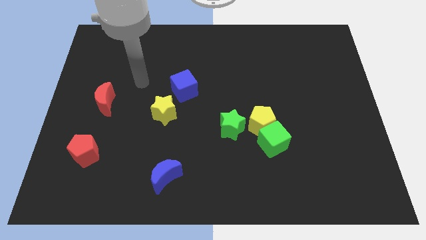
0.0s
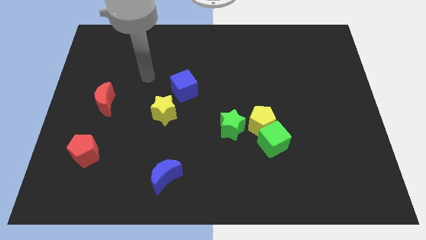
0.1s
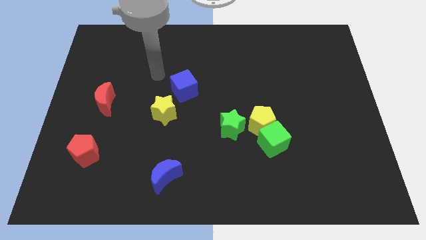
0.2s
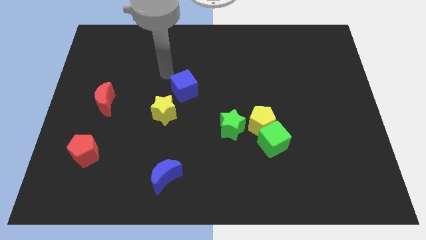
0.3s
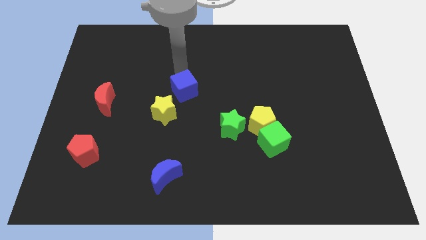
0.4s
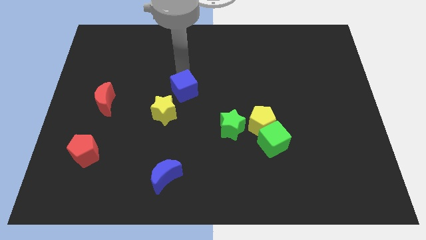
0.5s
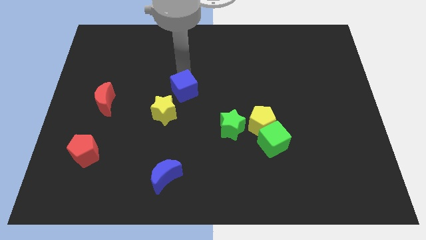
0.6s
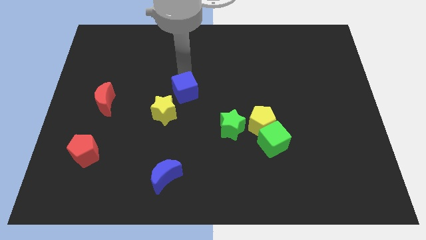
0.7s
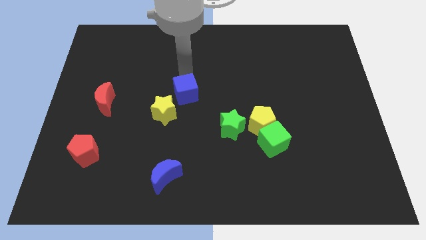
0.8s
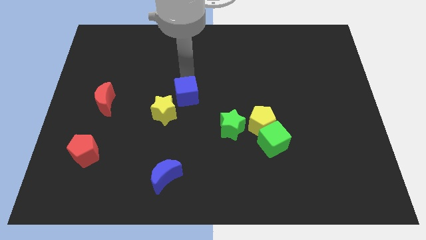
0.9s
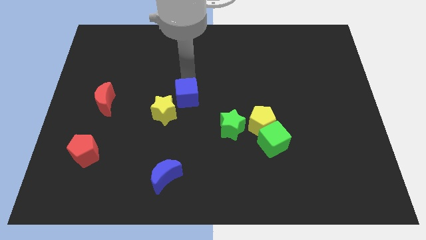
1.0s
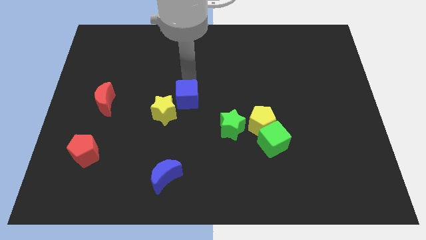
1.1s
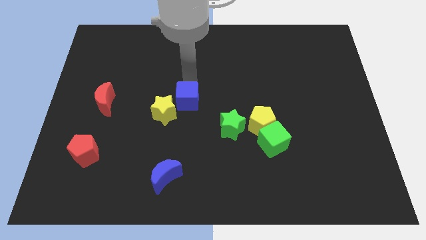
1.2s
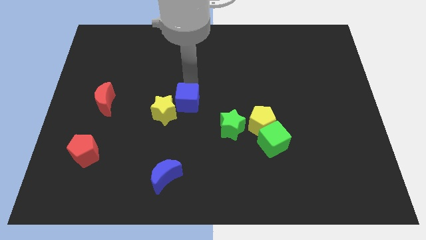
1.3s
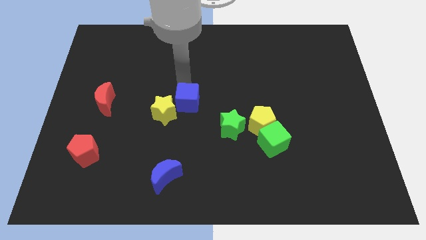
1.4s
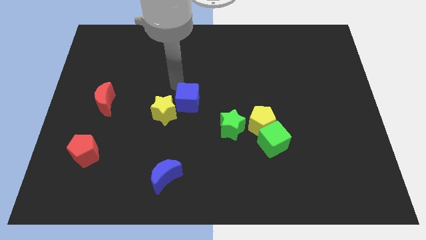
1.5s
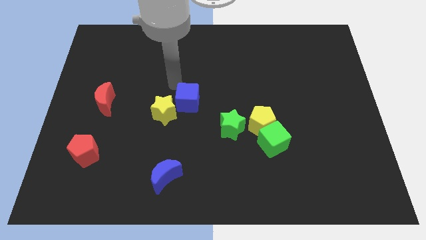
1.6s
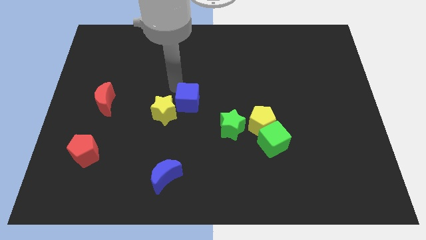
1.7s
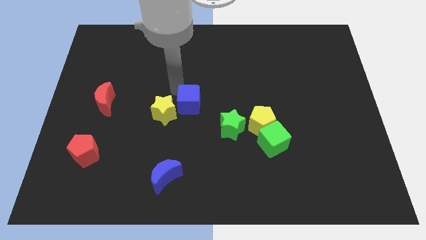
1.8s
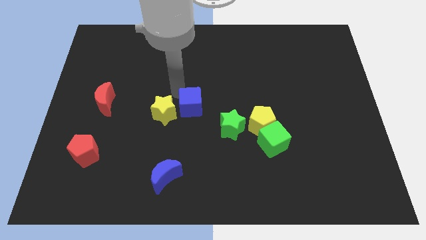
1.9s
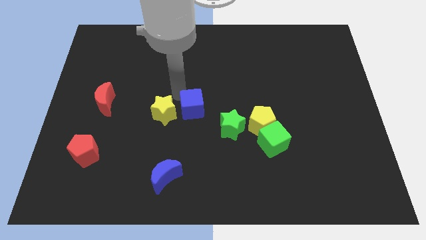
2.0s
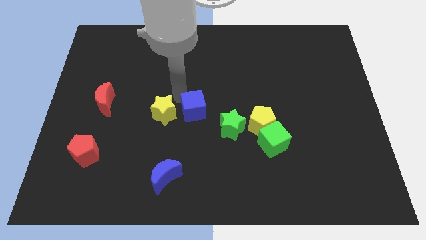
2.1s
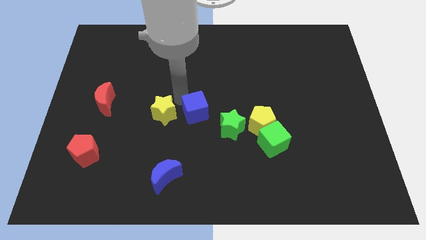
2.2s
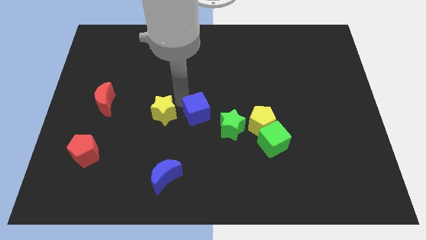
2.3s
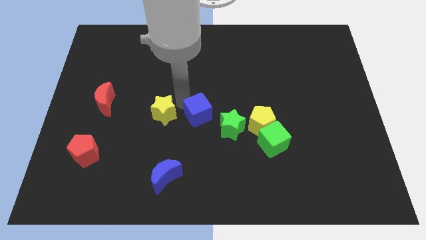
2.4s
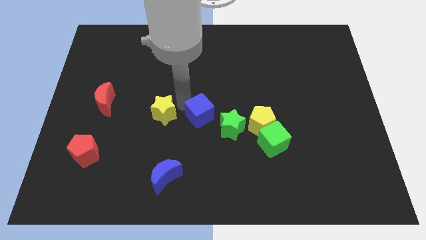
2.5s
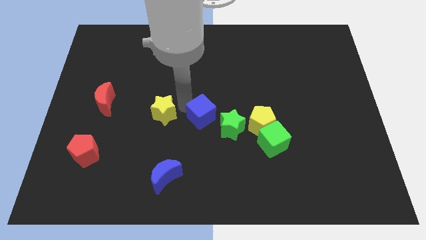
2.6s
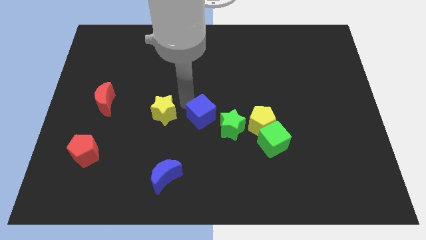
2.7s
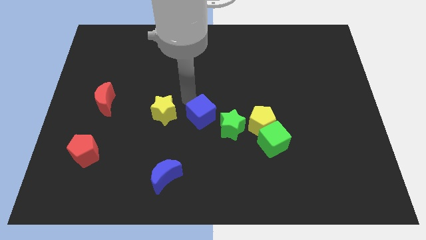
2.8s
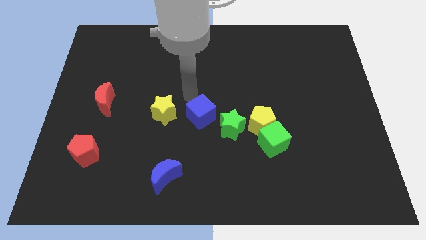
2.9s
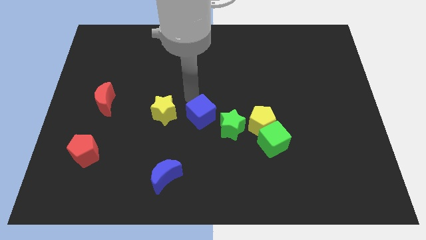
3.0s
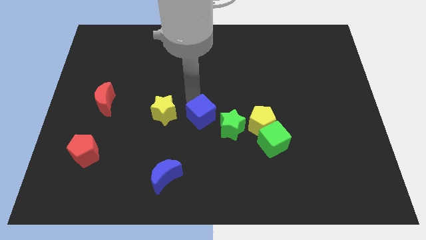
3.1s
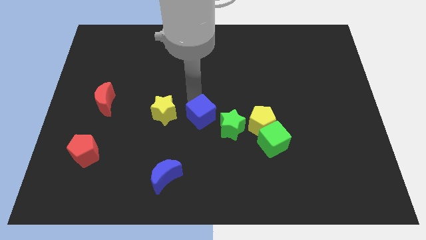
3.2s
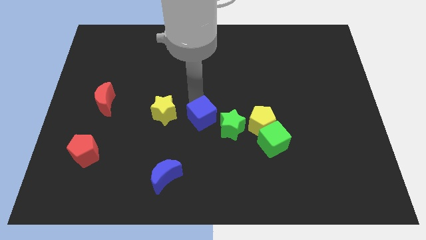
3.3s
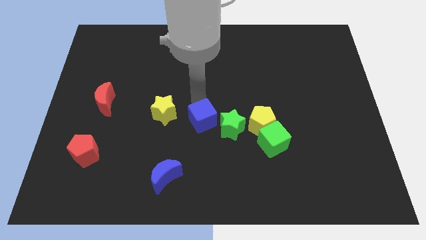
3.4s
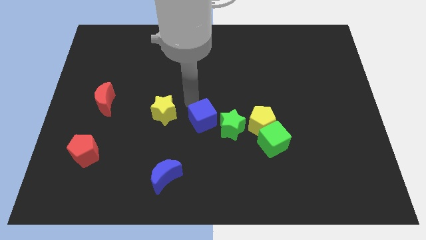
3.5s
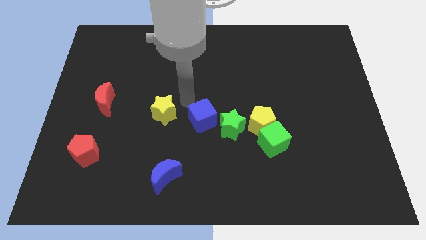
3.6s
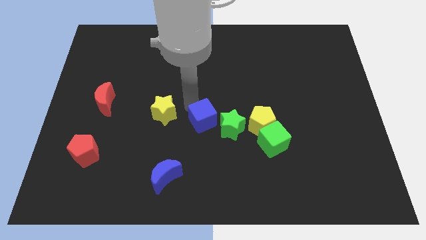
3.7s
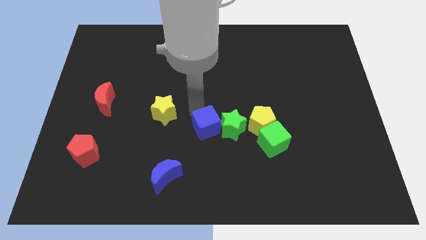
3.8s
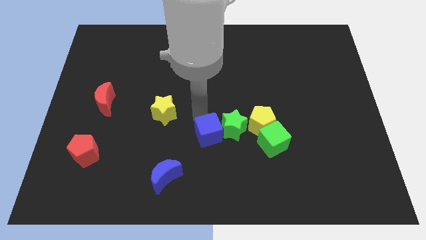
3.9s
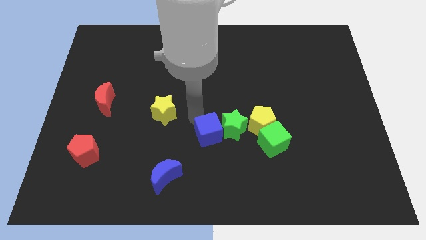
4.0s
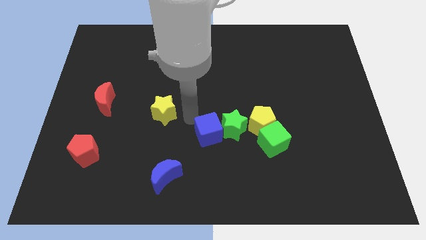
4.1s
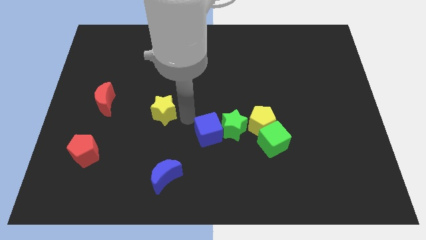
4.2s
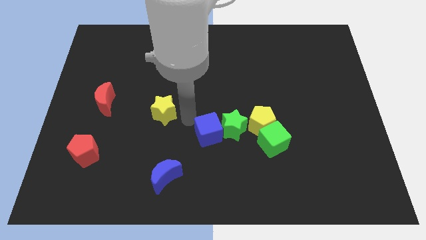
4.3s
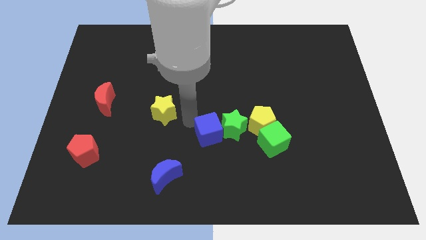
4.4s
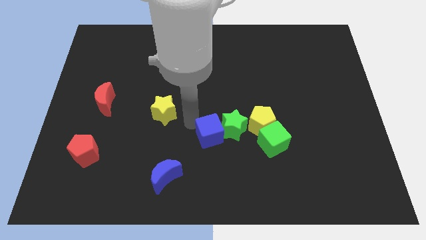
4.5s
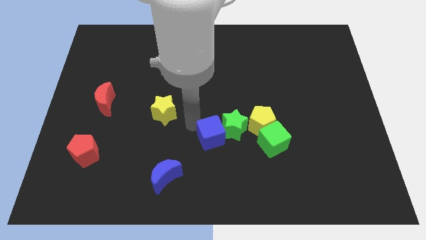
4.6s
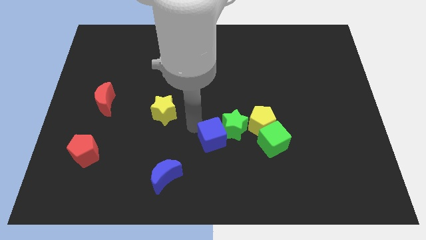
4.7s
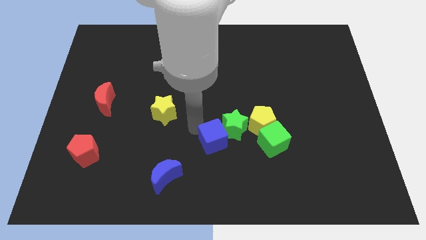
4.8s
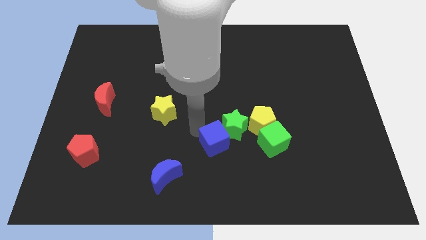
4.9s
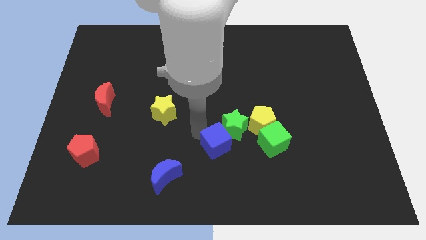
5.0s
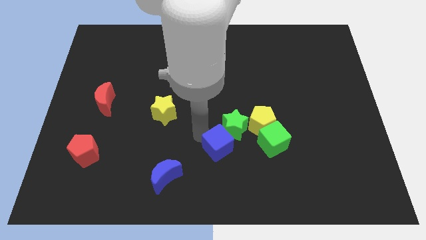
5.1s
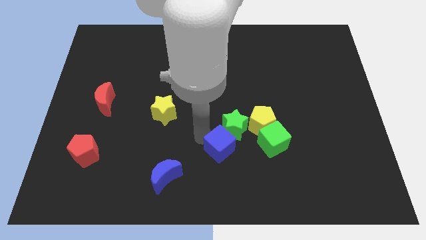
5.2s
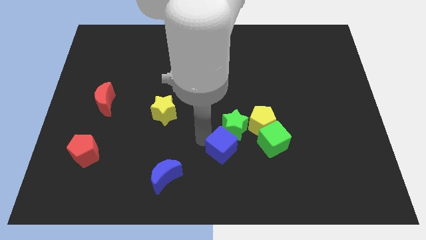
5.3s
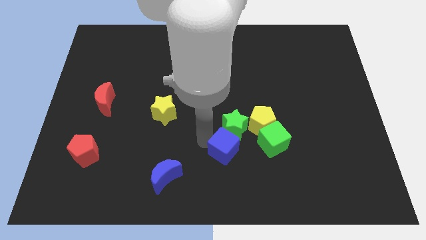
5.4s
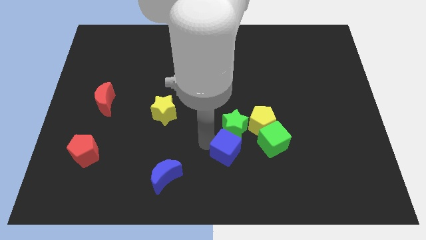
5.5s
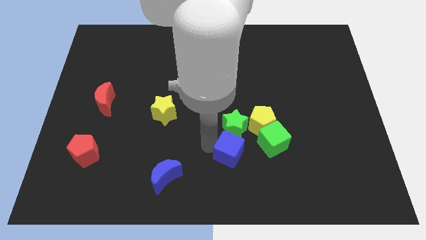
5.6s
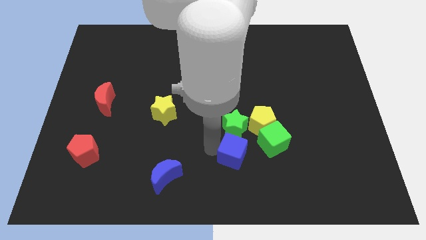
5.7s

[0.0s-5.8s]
push the blue cube downwards and right diagonally

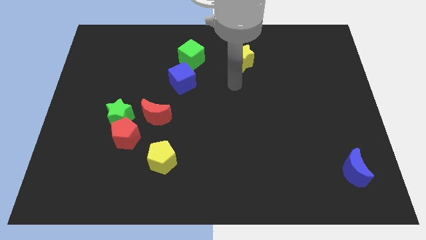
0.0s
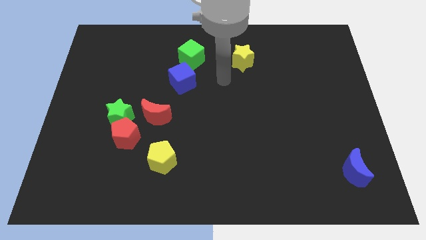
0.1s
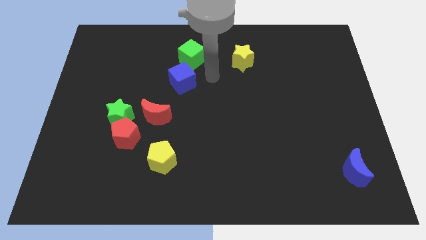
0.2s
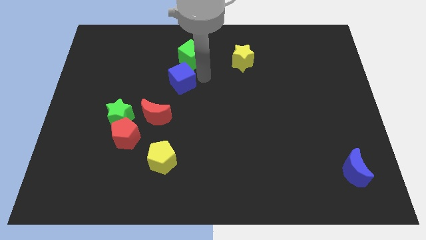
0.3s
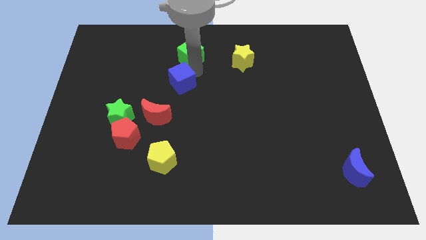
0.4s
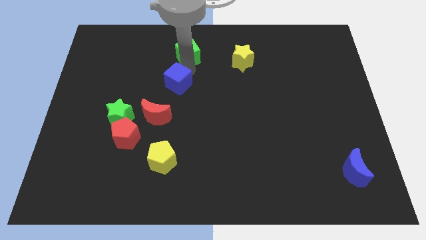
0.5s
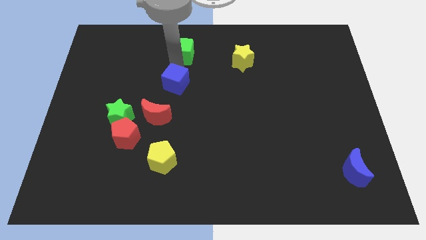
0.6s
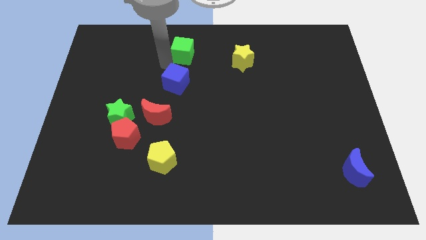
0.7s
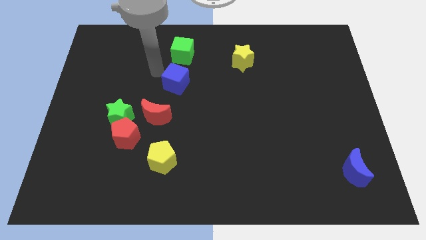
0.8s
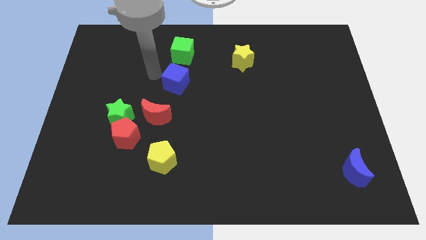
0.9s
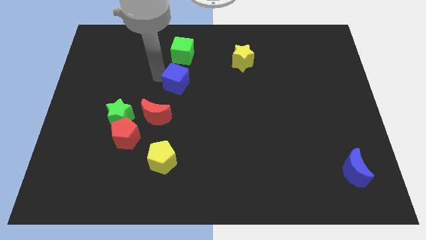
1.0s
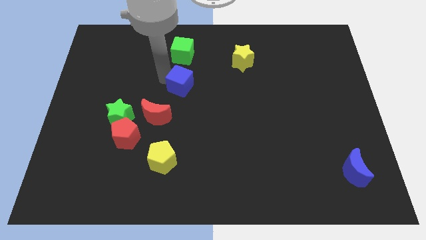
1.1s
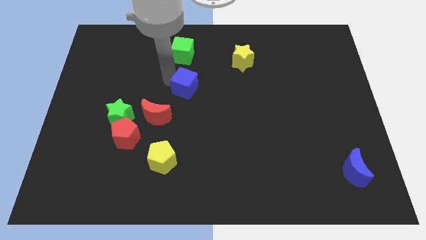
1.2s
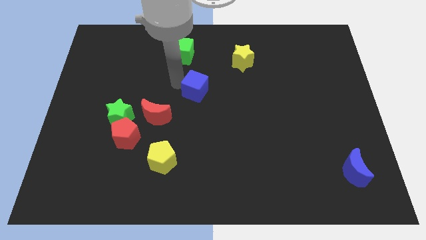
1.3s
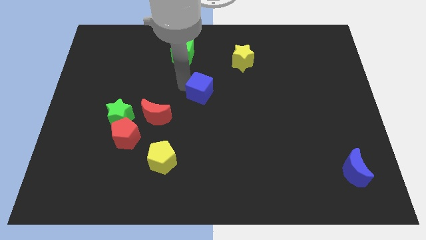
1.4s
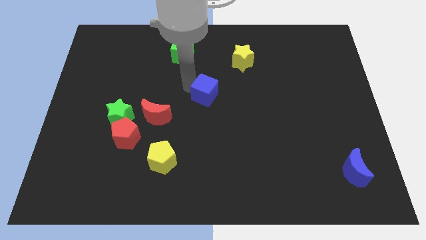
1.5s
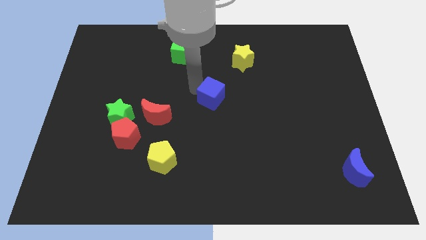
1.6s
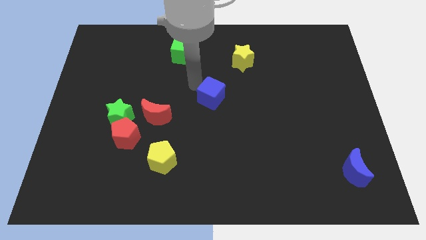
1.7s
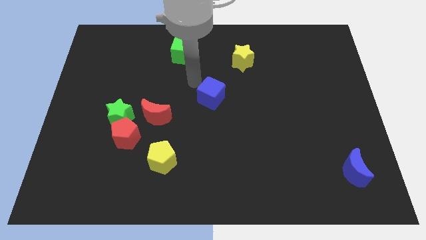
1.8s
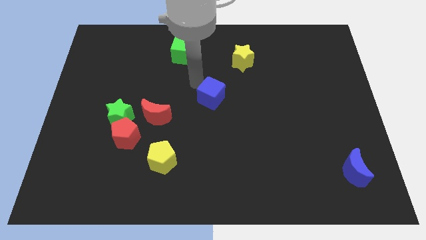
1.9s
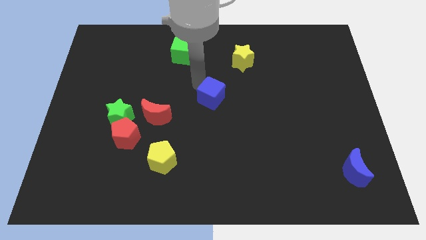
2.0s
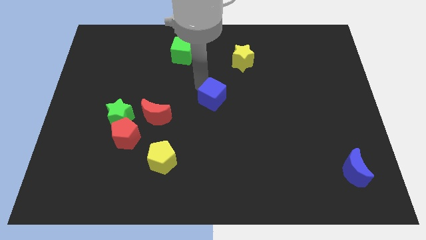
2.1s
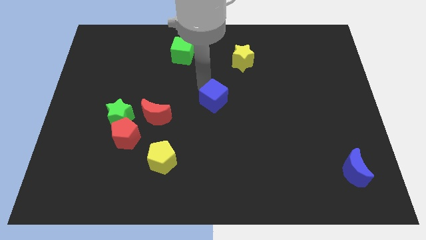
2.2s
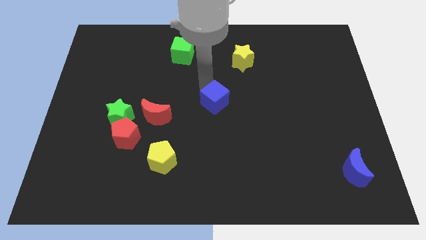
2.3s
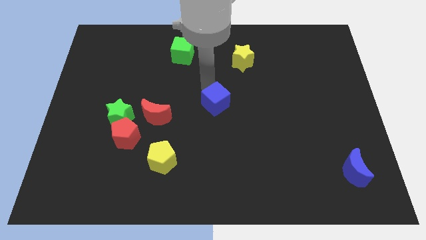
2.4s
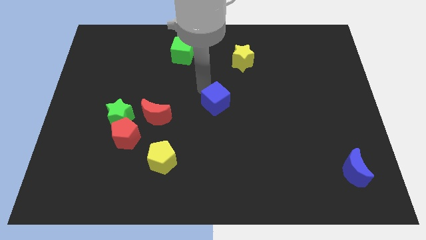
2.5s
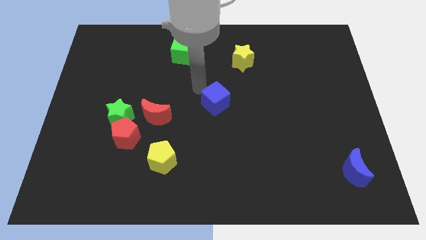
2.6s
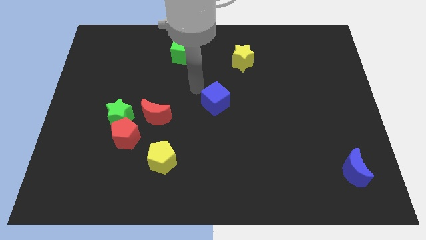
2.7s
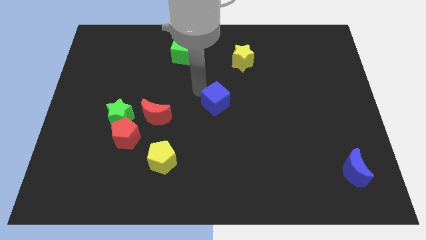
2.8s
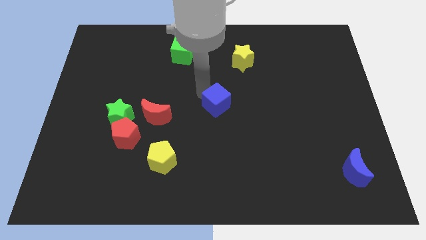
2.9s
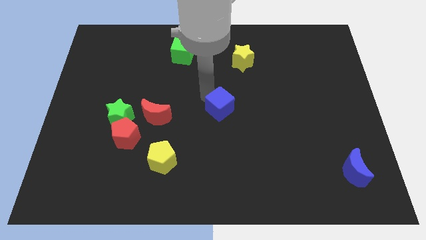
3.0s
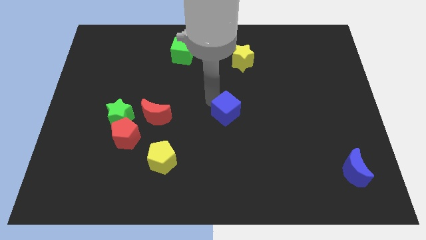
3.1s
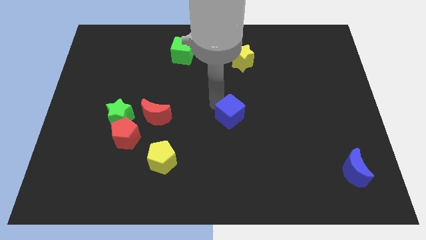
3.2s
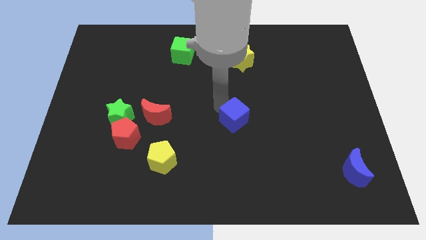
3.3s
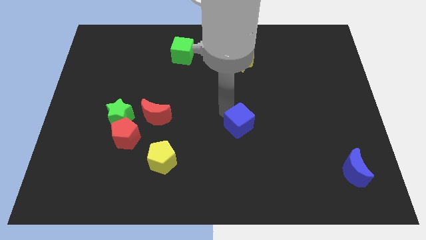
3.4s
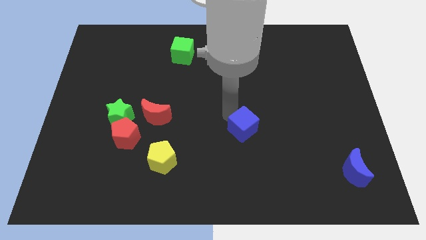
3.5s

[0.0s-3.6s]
slide the blue cube downwards and to the right diagonally
